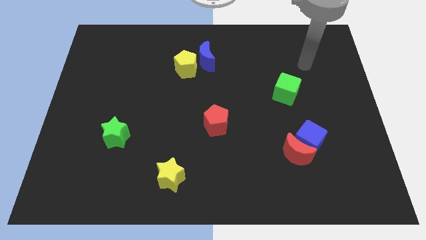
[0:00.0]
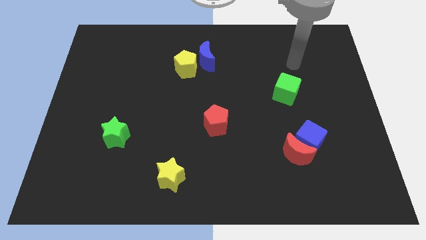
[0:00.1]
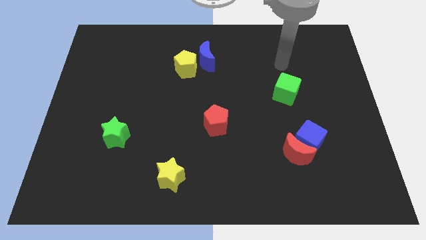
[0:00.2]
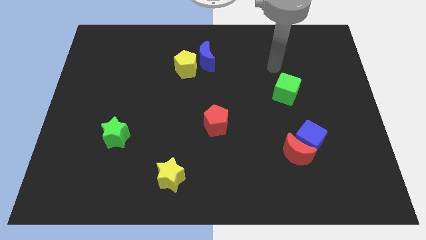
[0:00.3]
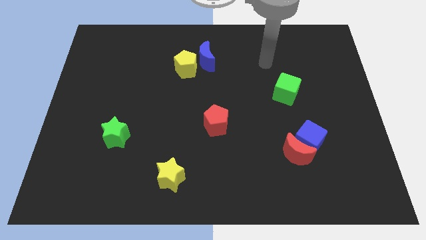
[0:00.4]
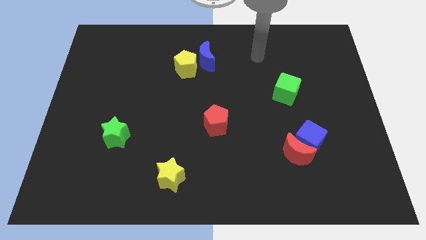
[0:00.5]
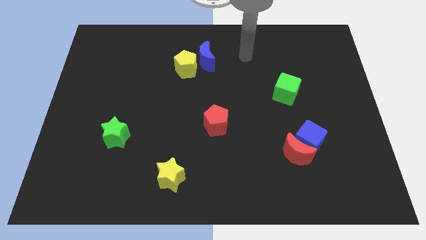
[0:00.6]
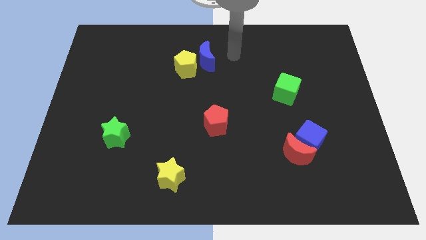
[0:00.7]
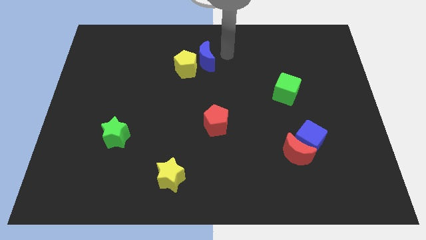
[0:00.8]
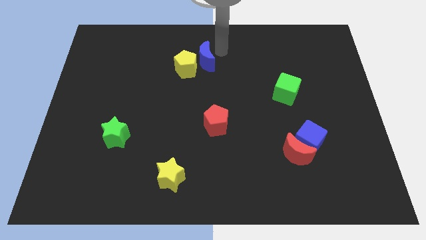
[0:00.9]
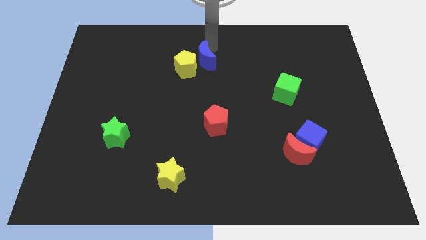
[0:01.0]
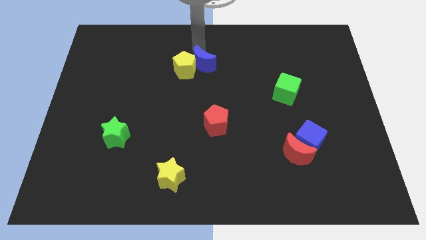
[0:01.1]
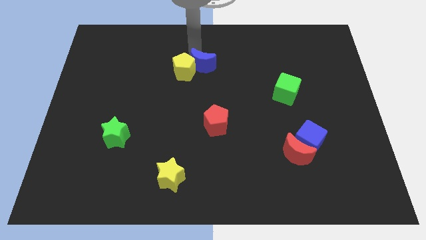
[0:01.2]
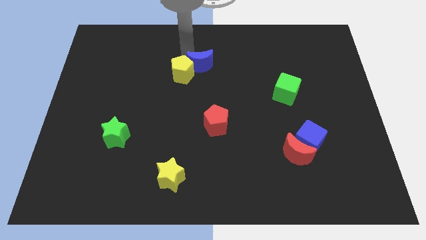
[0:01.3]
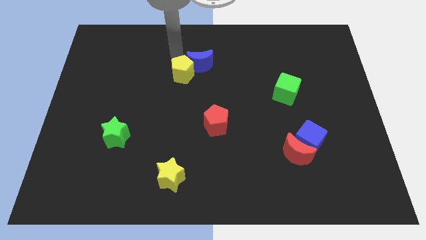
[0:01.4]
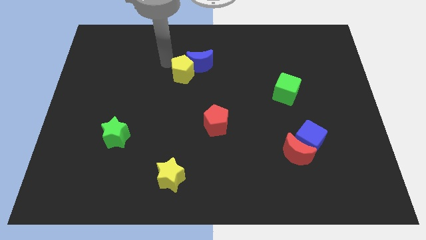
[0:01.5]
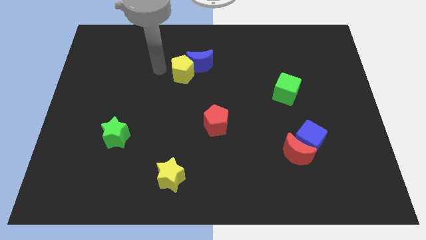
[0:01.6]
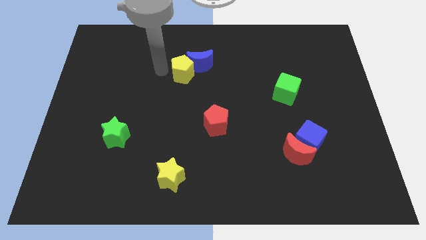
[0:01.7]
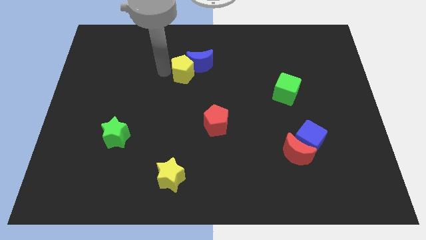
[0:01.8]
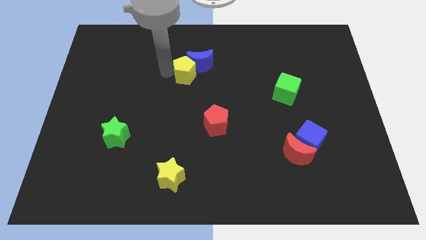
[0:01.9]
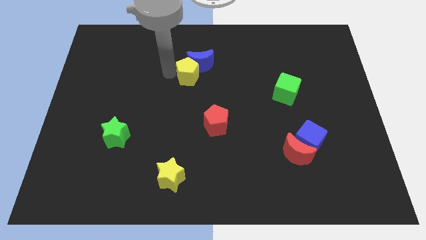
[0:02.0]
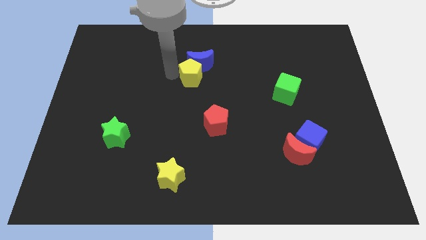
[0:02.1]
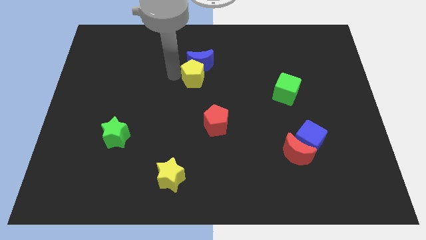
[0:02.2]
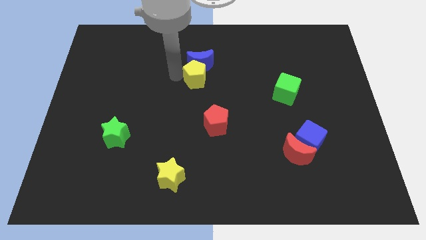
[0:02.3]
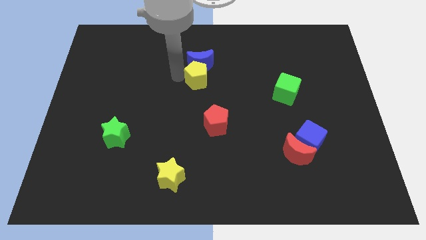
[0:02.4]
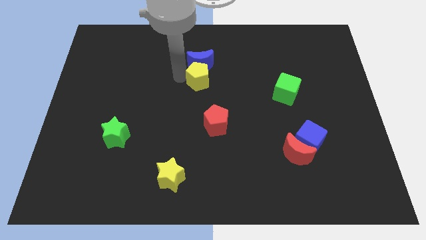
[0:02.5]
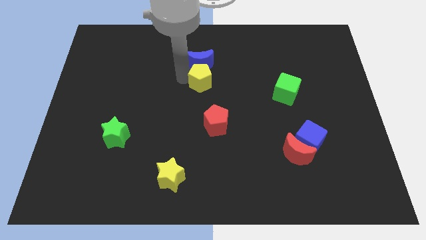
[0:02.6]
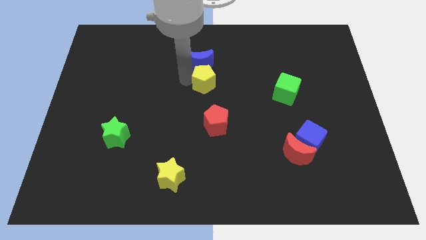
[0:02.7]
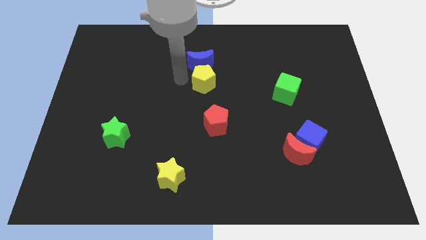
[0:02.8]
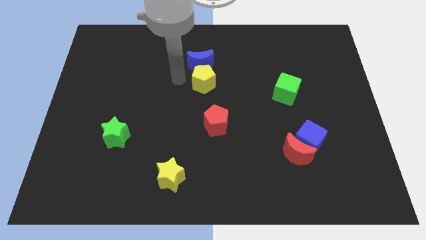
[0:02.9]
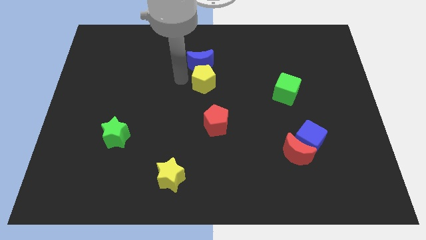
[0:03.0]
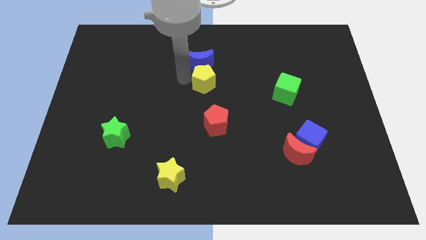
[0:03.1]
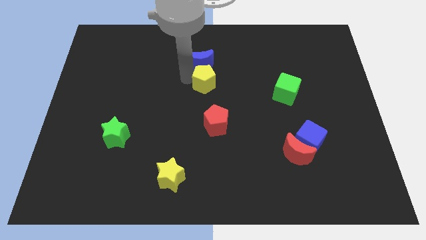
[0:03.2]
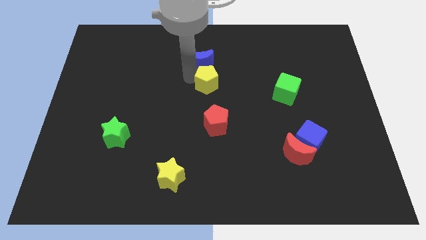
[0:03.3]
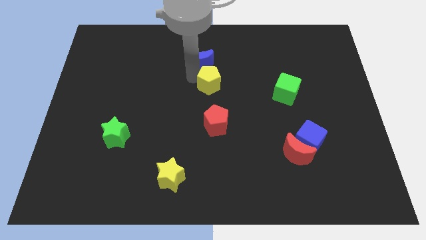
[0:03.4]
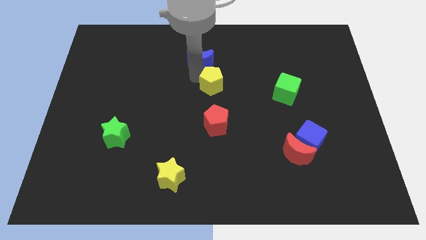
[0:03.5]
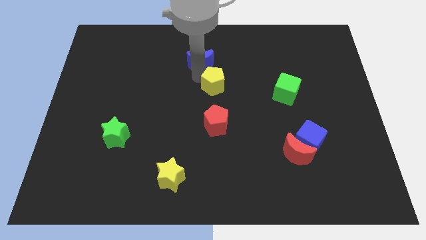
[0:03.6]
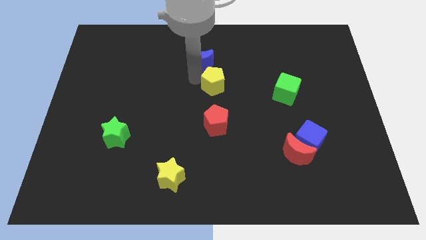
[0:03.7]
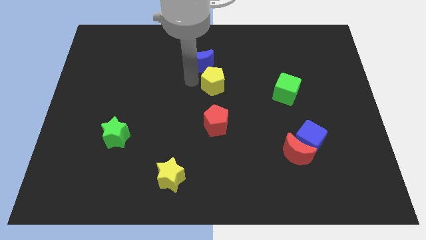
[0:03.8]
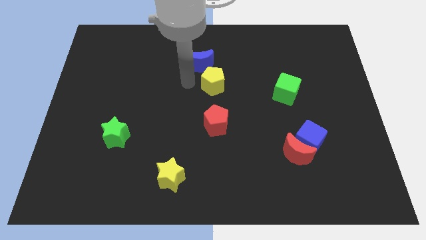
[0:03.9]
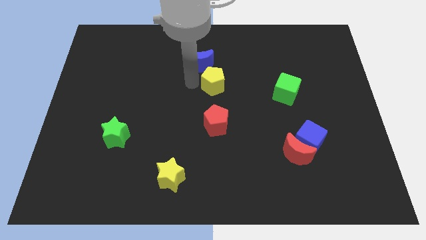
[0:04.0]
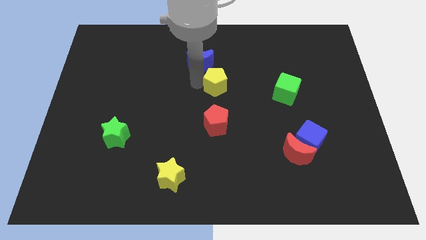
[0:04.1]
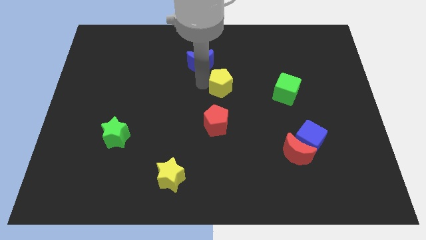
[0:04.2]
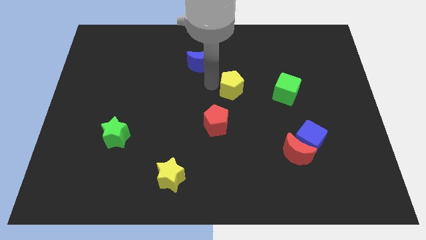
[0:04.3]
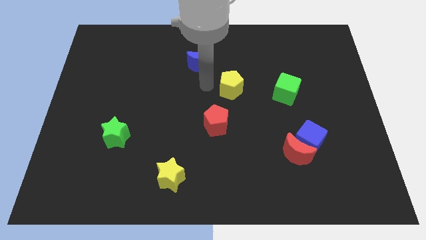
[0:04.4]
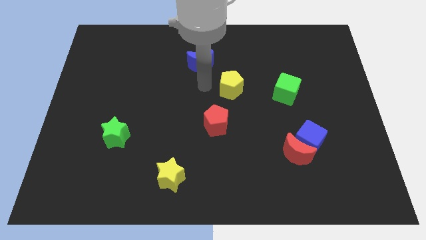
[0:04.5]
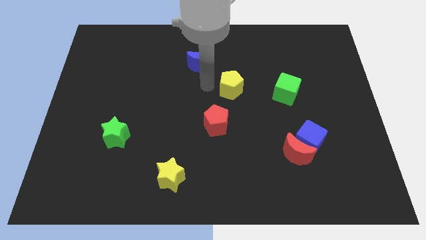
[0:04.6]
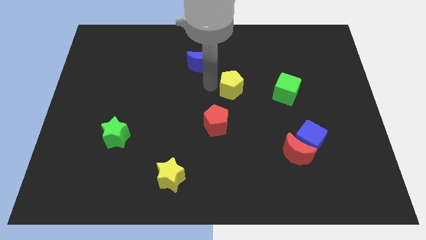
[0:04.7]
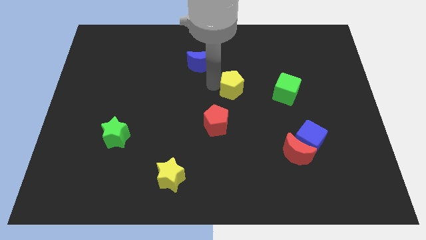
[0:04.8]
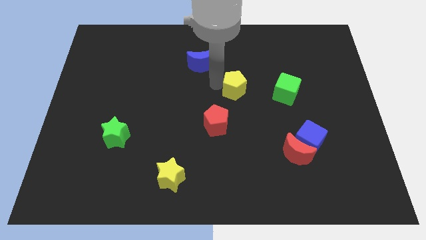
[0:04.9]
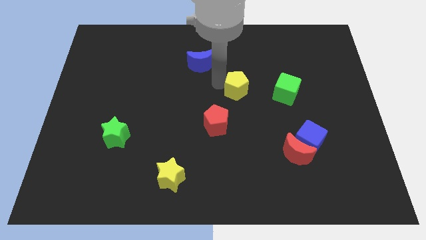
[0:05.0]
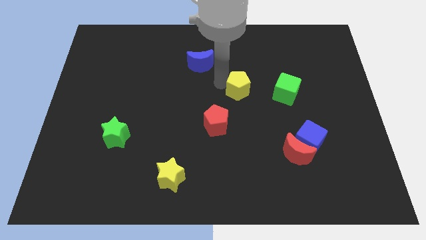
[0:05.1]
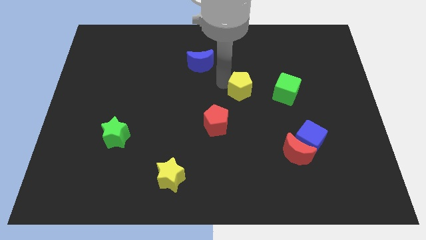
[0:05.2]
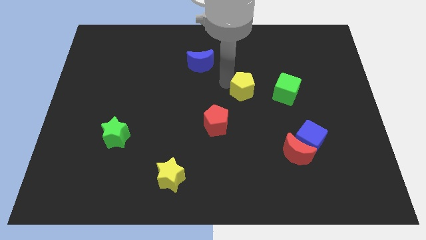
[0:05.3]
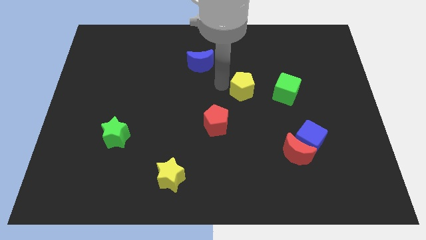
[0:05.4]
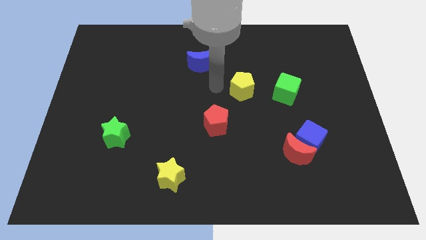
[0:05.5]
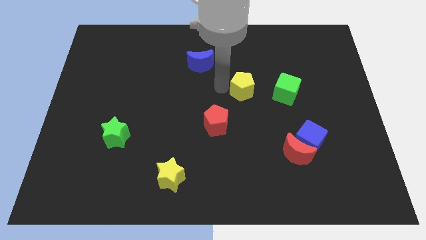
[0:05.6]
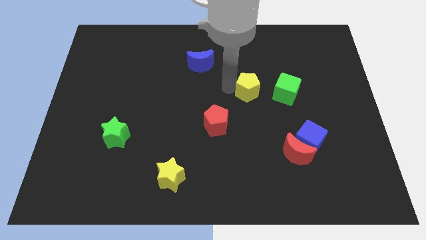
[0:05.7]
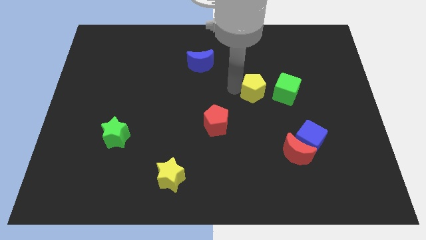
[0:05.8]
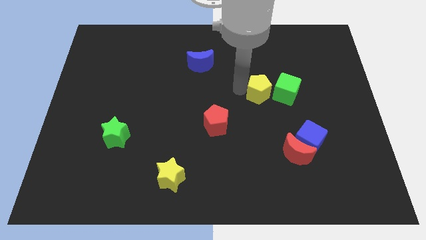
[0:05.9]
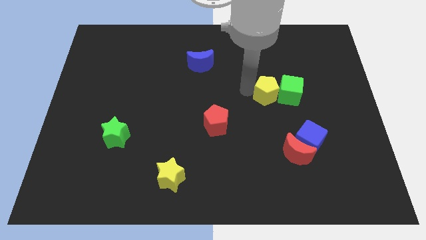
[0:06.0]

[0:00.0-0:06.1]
move the yellow pentagon close to the green cube

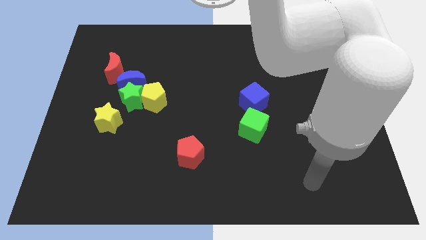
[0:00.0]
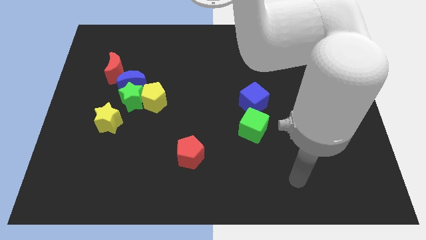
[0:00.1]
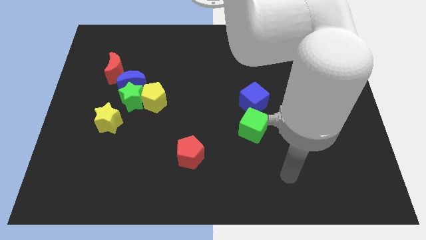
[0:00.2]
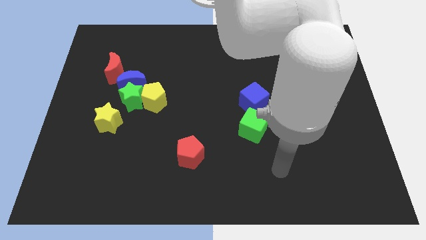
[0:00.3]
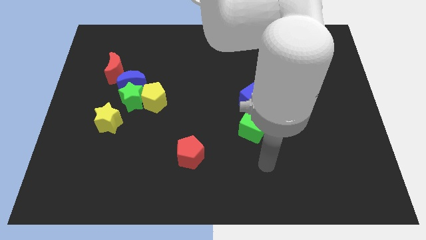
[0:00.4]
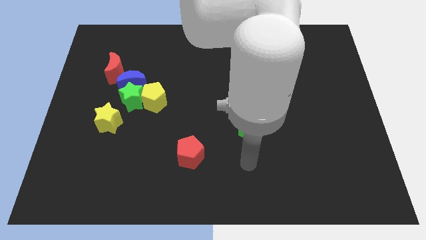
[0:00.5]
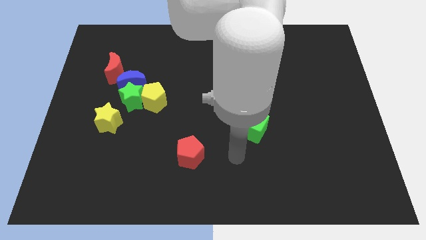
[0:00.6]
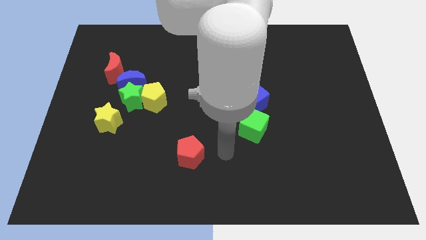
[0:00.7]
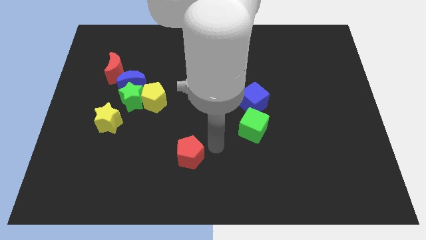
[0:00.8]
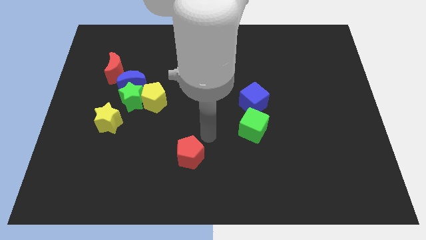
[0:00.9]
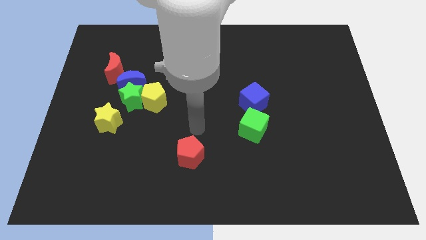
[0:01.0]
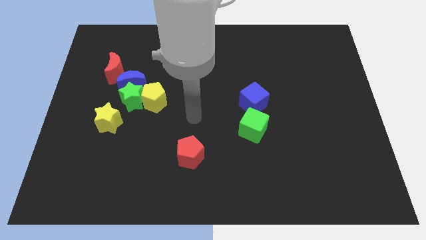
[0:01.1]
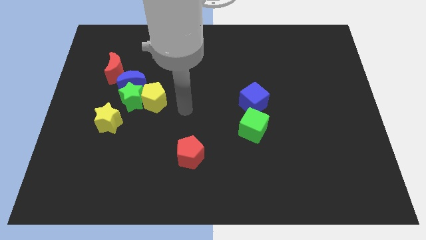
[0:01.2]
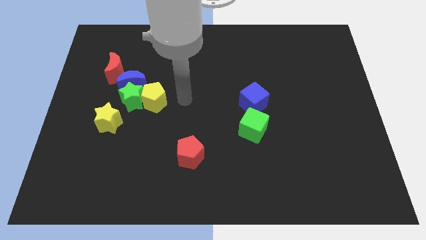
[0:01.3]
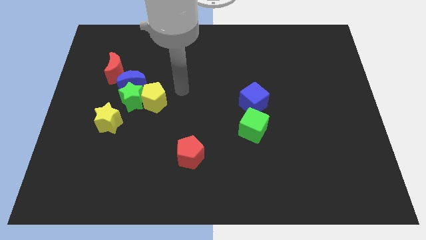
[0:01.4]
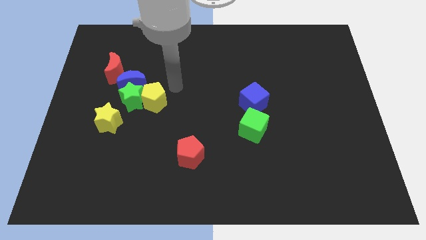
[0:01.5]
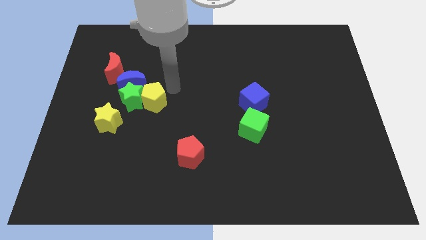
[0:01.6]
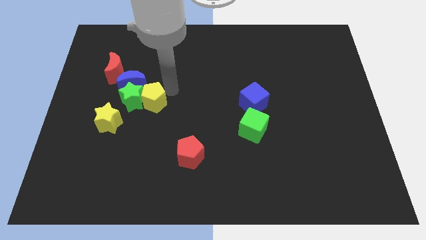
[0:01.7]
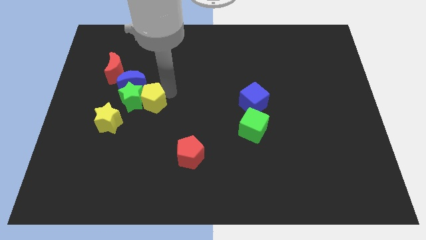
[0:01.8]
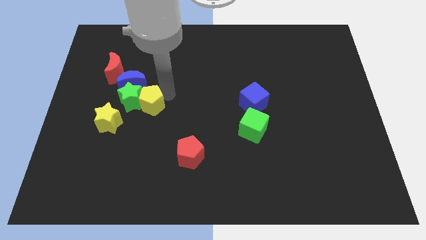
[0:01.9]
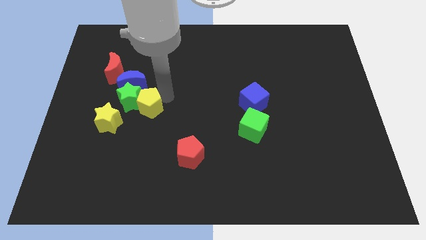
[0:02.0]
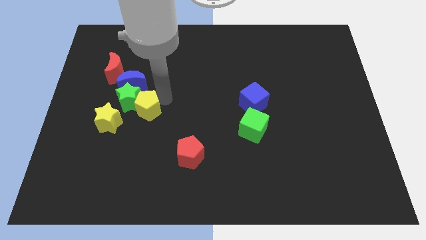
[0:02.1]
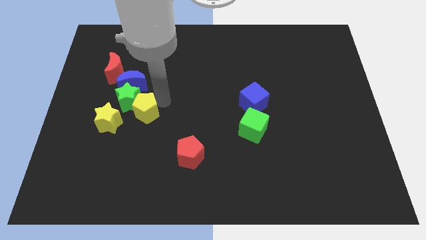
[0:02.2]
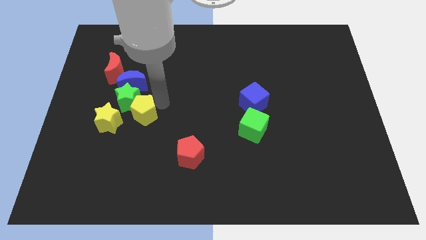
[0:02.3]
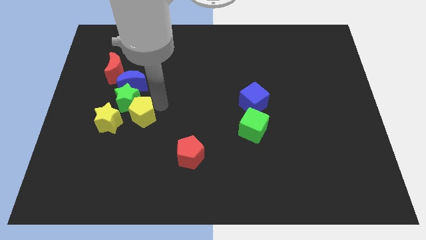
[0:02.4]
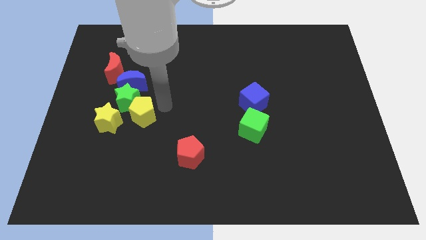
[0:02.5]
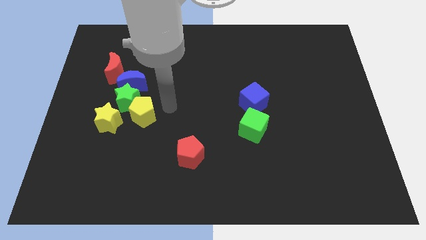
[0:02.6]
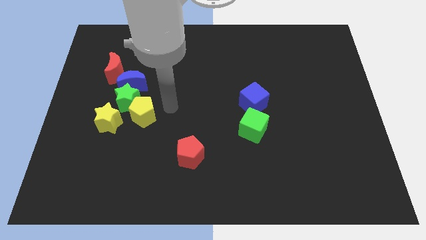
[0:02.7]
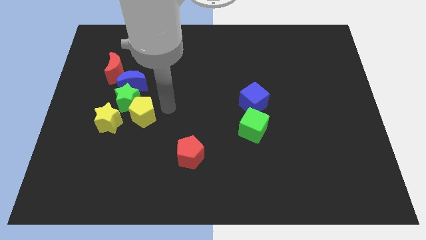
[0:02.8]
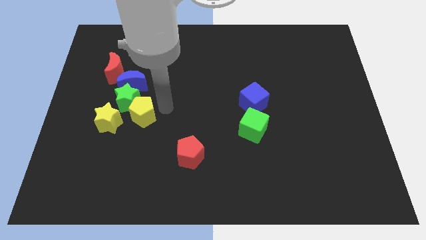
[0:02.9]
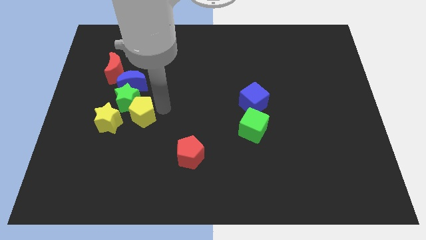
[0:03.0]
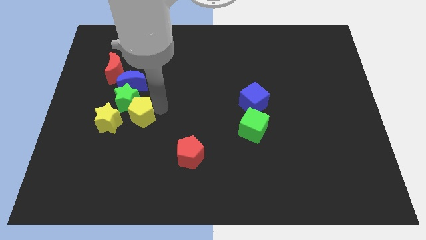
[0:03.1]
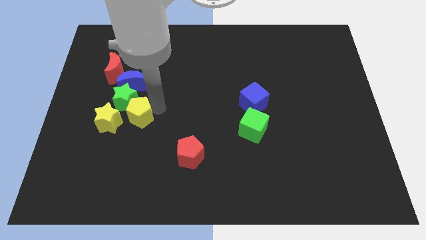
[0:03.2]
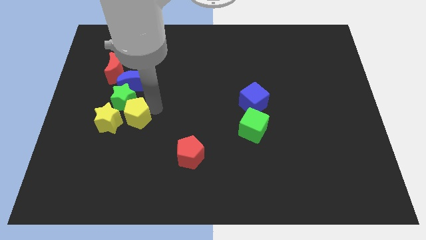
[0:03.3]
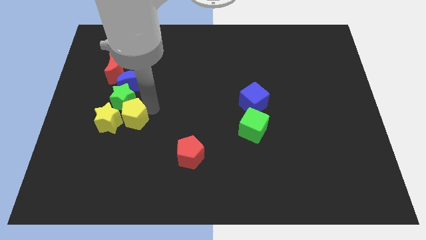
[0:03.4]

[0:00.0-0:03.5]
move the yellow pentagon close to the yellow star
